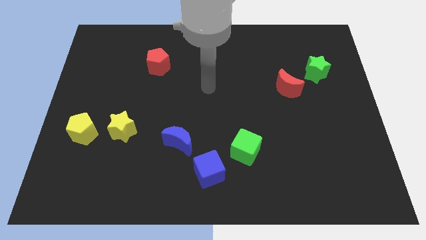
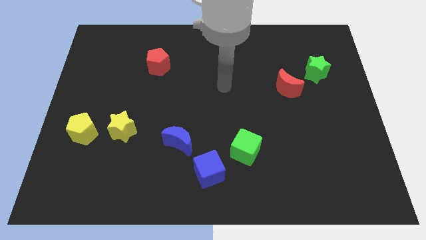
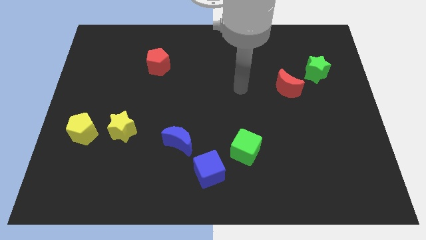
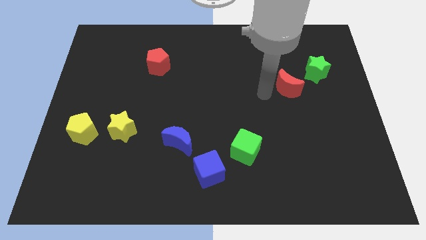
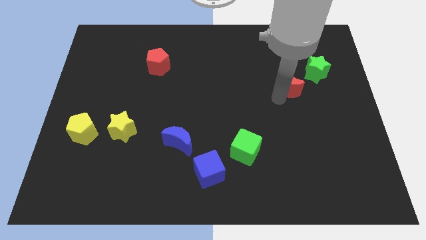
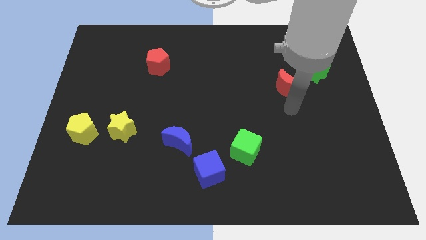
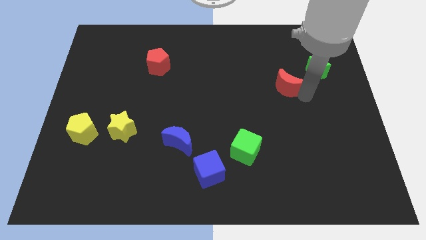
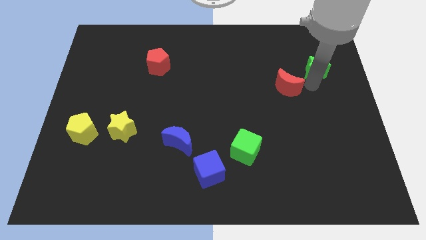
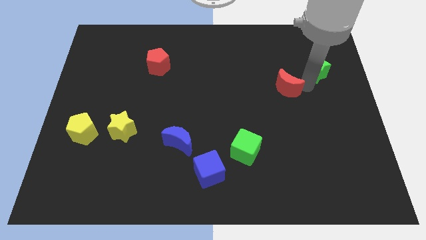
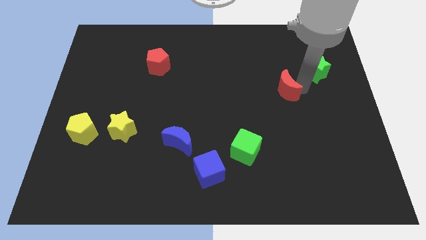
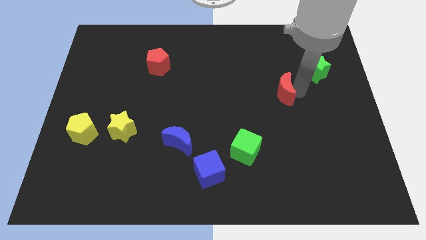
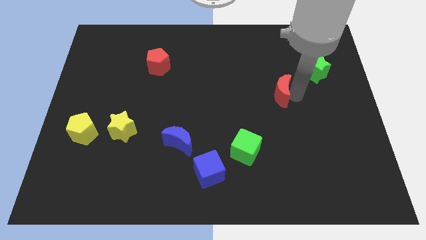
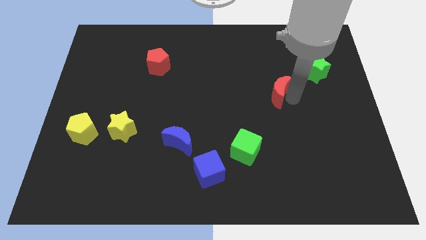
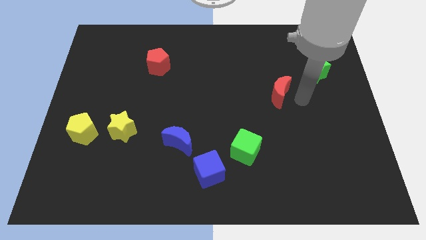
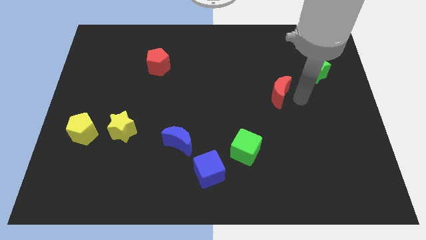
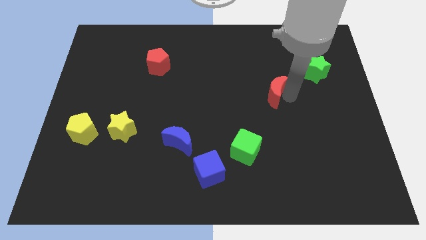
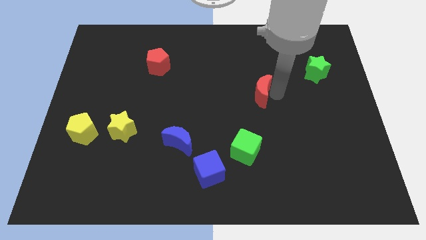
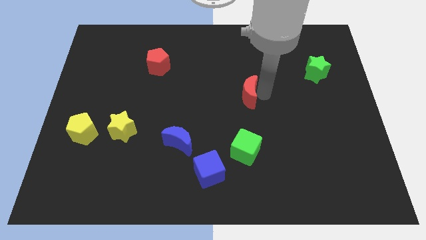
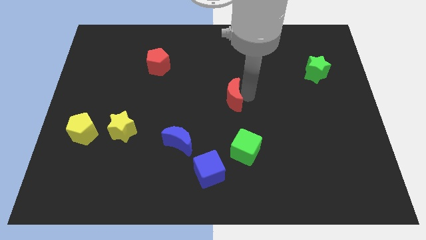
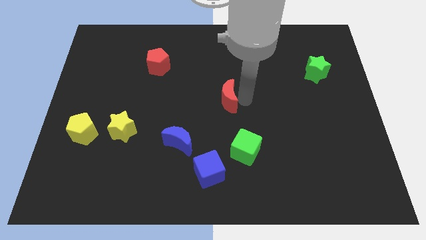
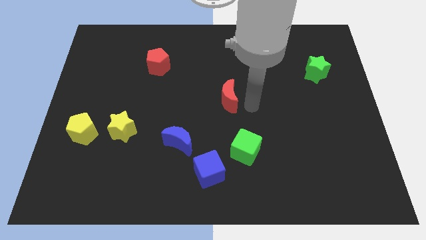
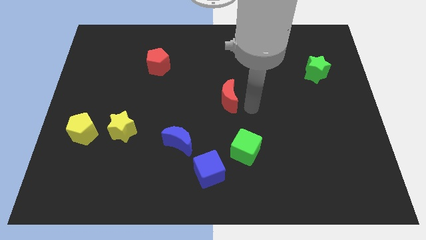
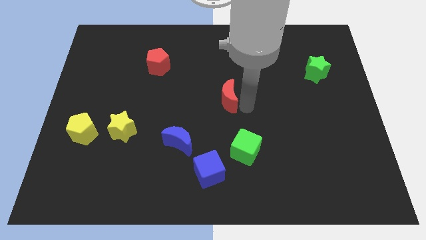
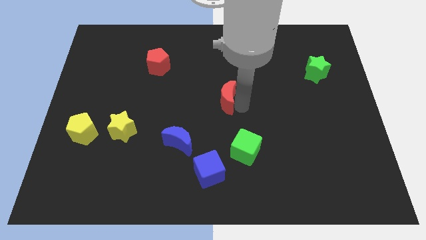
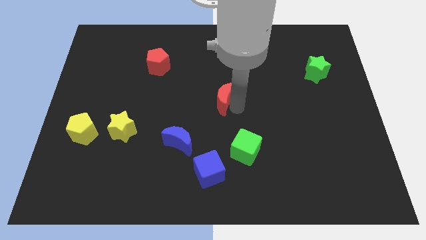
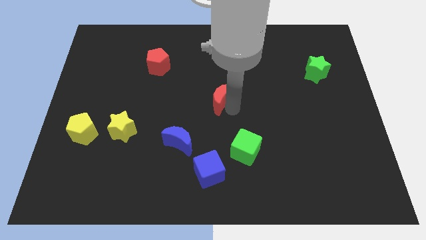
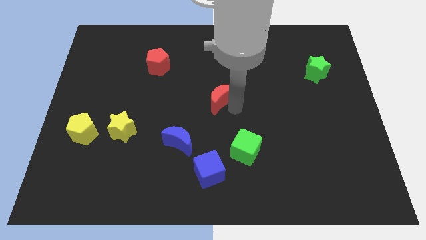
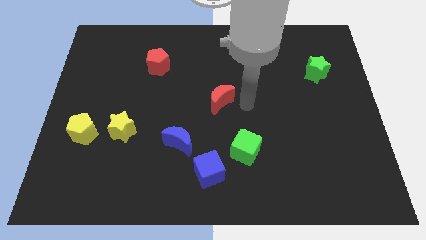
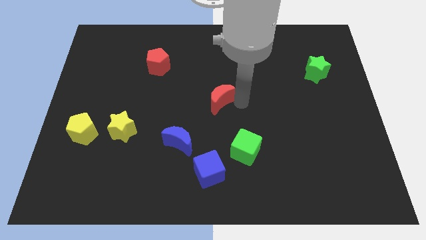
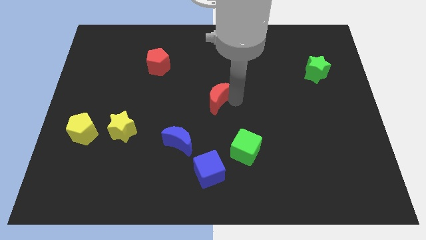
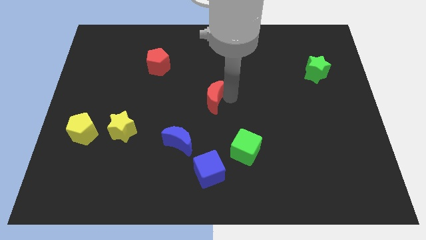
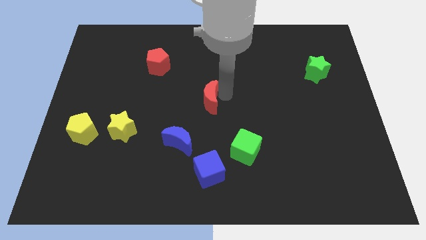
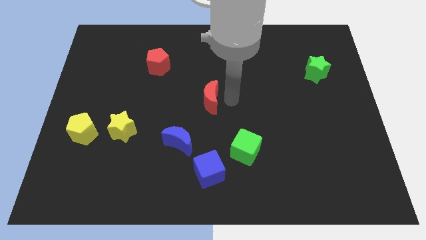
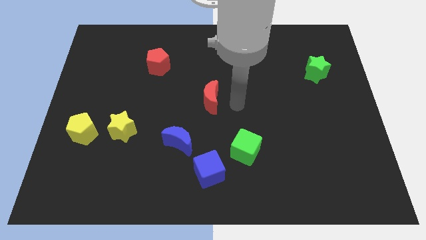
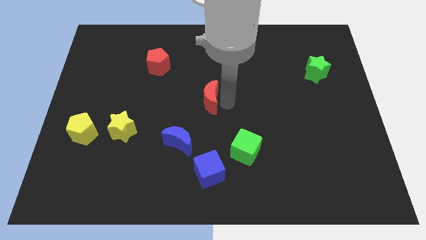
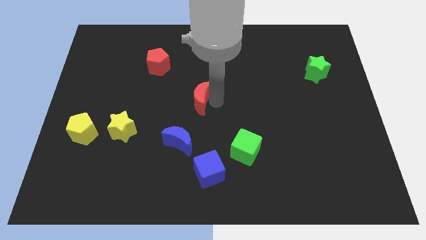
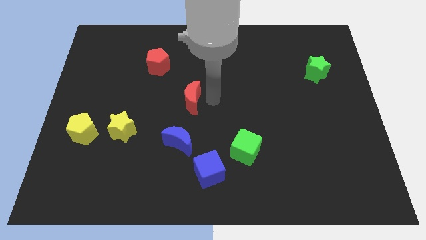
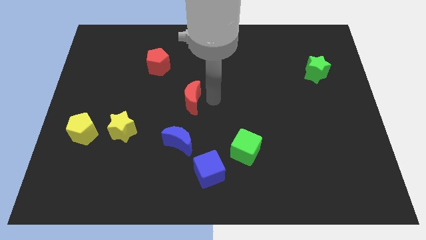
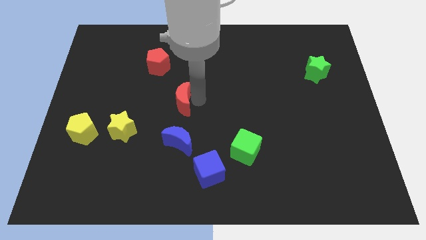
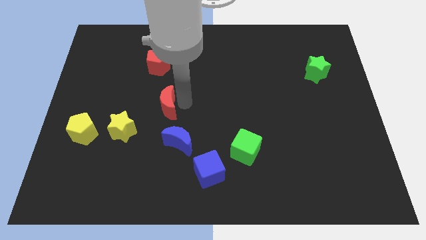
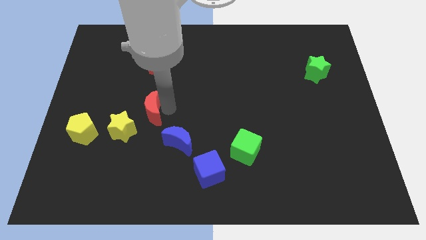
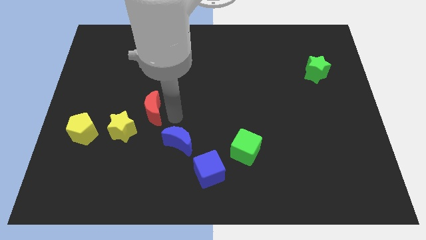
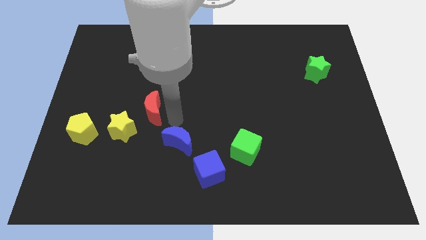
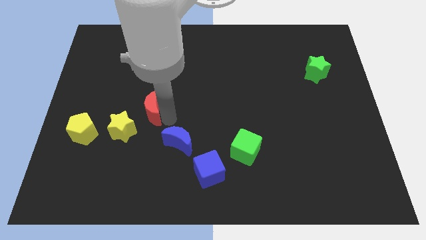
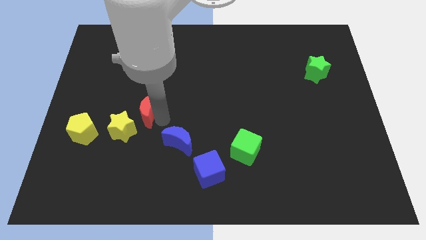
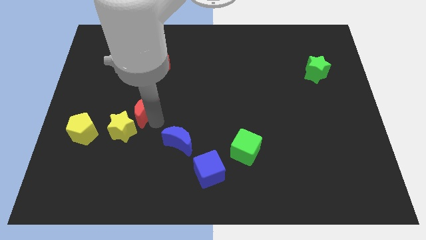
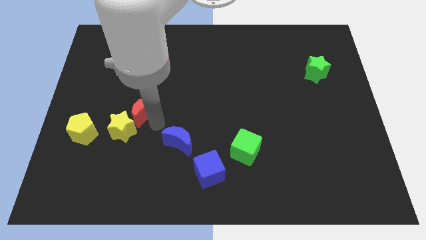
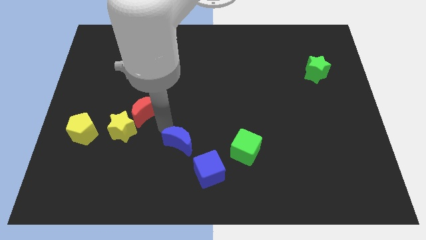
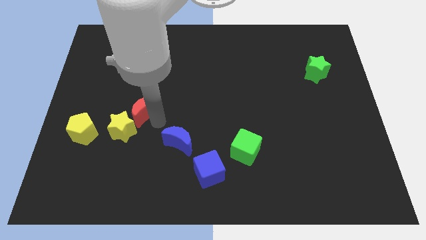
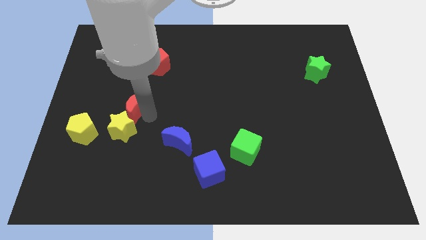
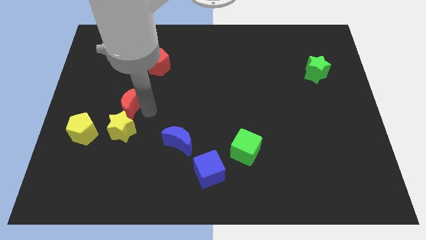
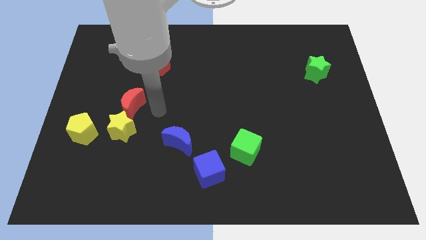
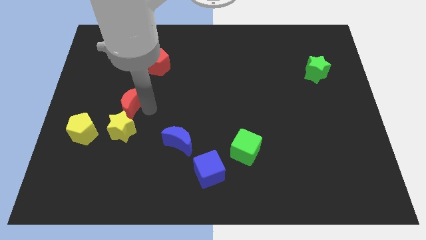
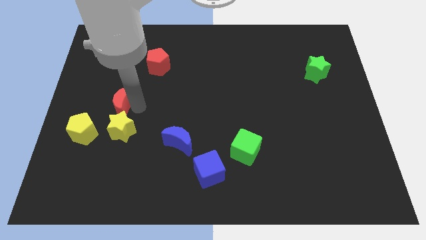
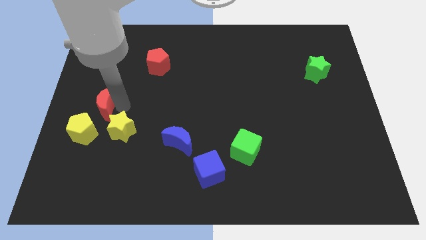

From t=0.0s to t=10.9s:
move the red moon to the left side
